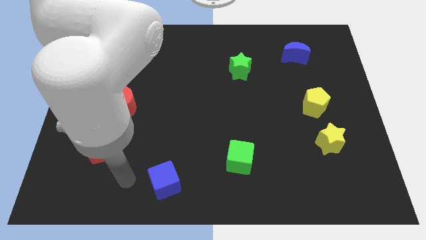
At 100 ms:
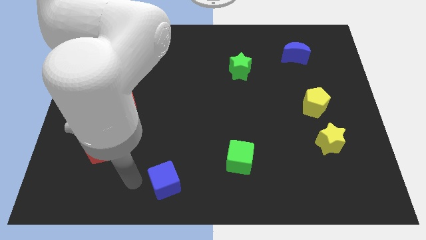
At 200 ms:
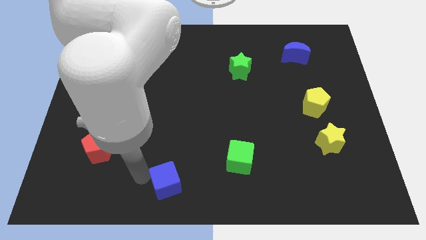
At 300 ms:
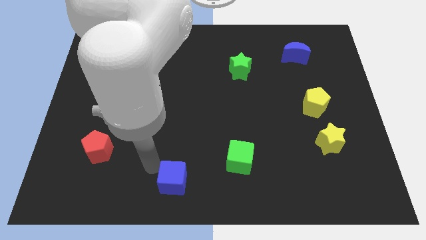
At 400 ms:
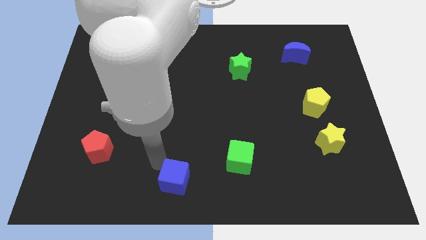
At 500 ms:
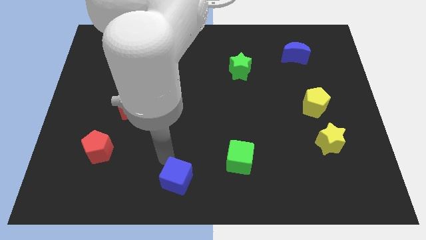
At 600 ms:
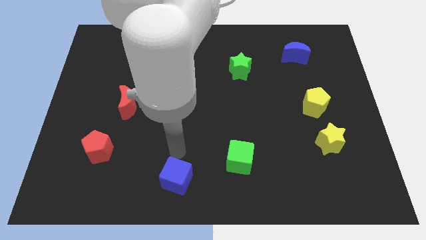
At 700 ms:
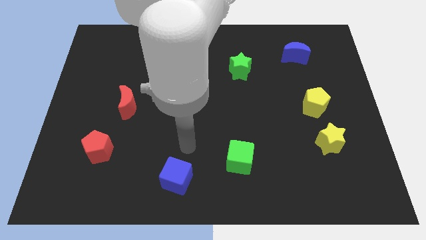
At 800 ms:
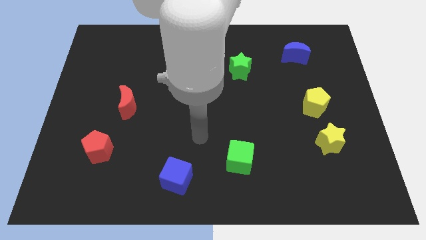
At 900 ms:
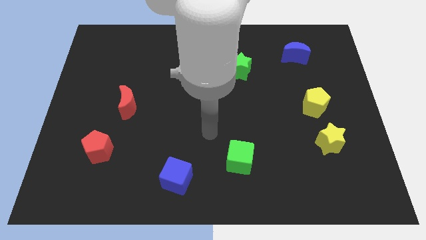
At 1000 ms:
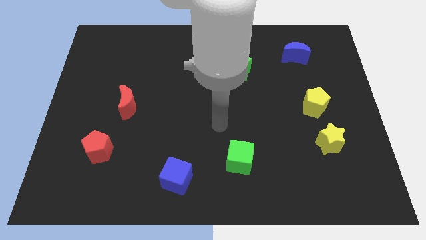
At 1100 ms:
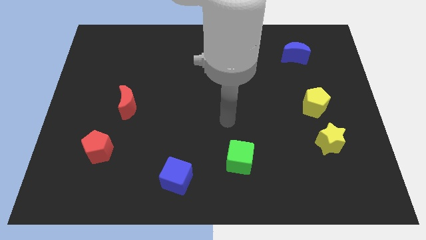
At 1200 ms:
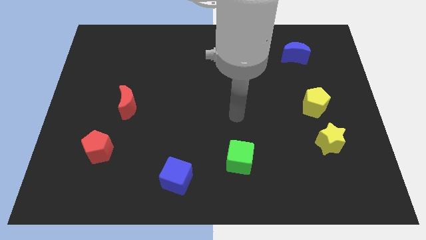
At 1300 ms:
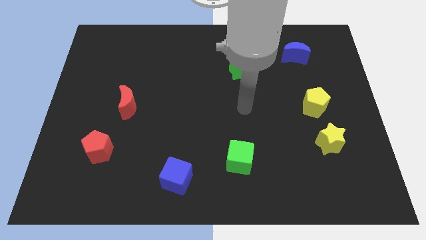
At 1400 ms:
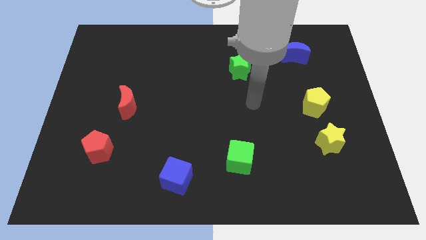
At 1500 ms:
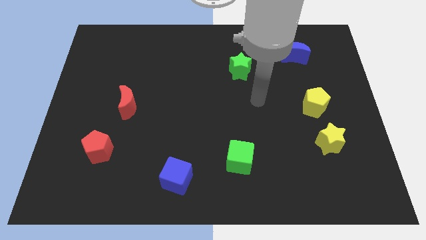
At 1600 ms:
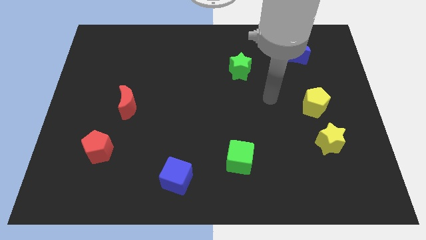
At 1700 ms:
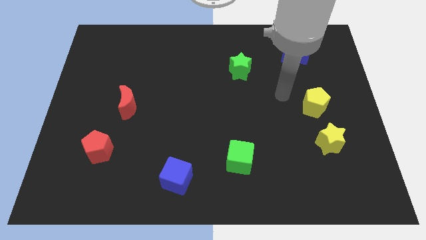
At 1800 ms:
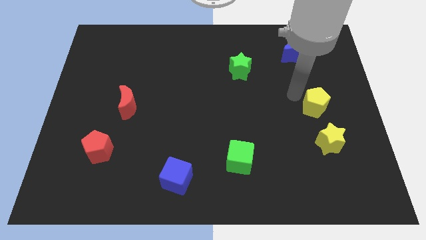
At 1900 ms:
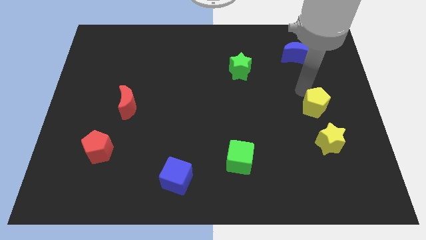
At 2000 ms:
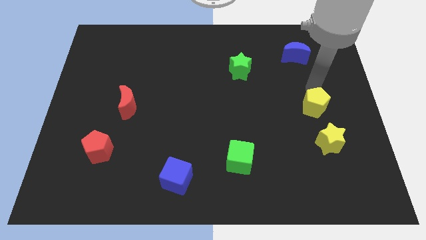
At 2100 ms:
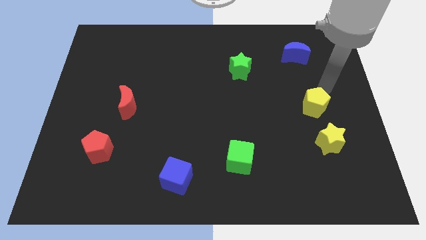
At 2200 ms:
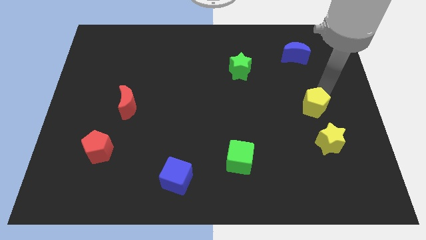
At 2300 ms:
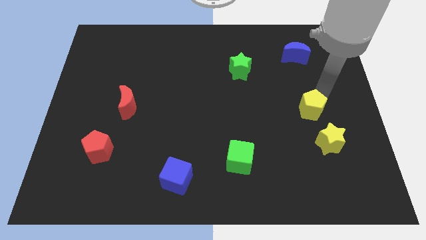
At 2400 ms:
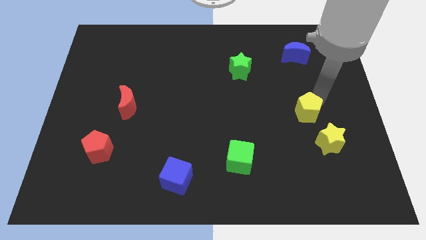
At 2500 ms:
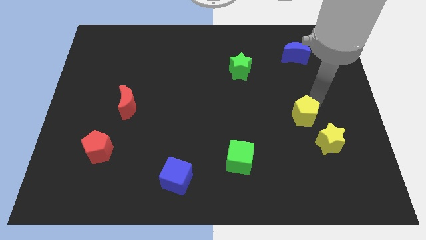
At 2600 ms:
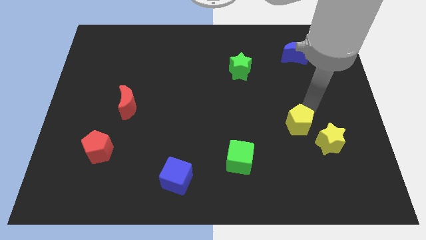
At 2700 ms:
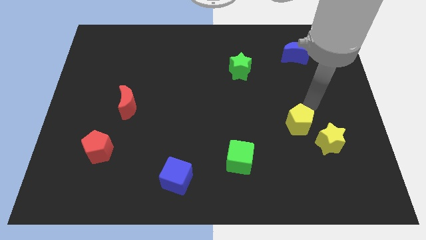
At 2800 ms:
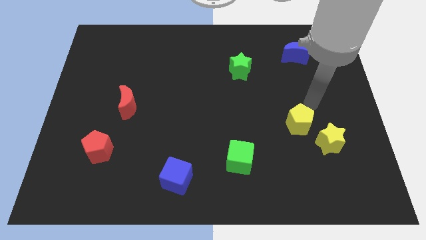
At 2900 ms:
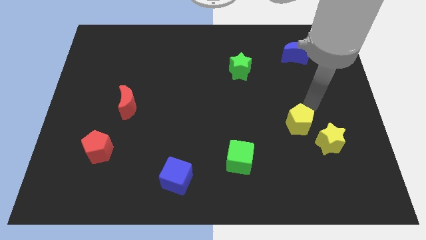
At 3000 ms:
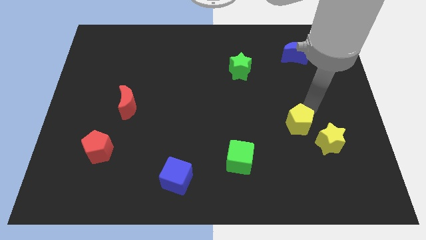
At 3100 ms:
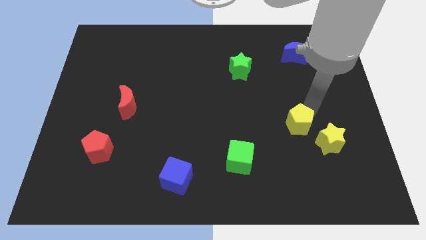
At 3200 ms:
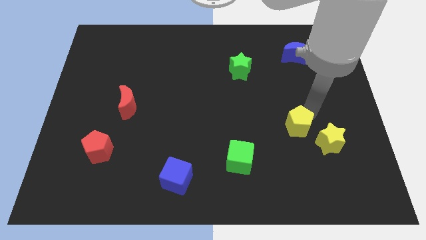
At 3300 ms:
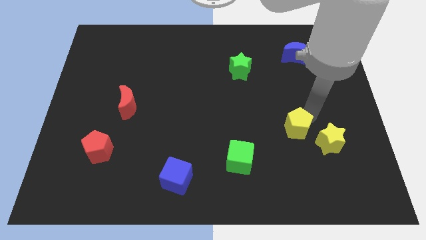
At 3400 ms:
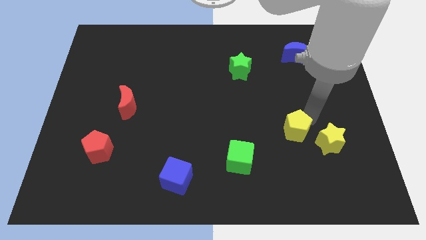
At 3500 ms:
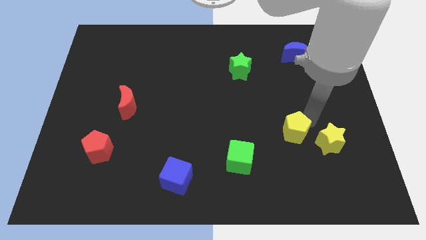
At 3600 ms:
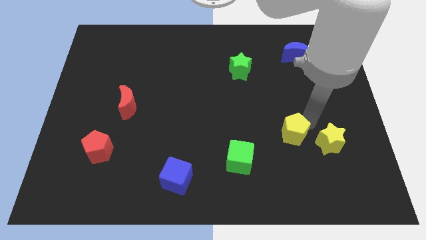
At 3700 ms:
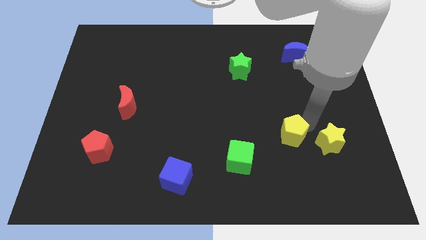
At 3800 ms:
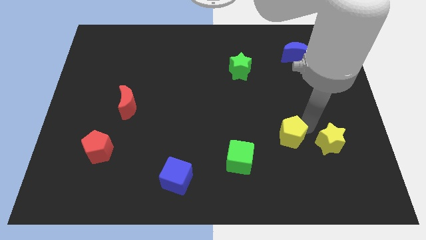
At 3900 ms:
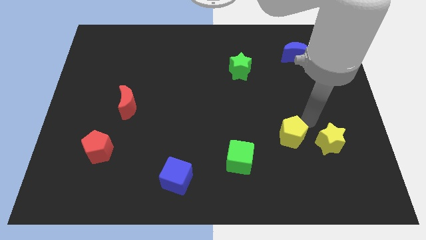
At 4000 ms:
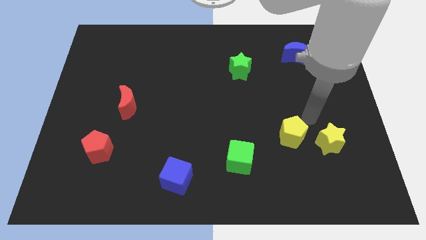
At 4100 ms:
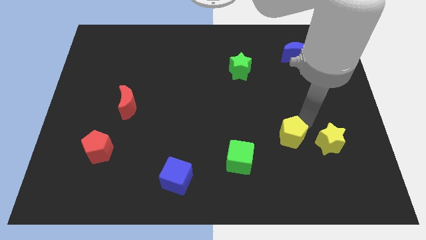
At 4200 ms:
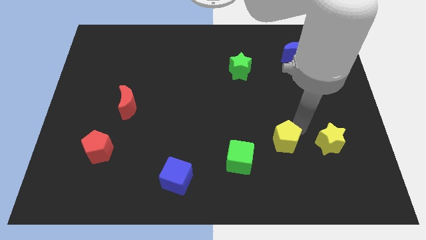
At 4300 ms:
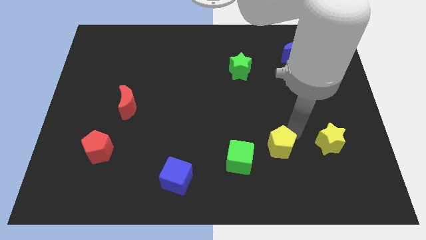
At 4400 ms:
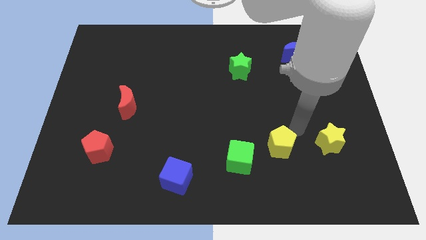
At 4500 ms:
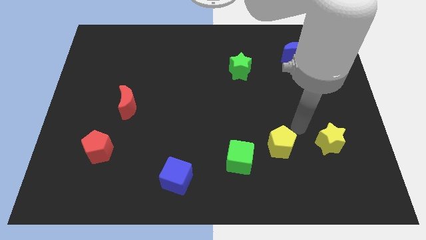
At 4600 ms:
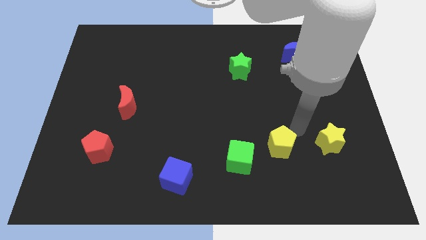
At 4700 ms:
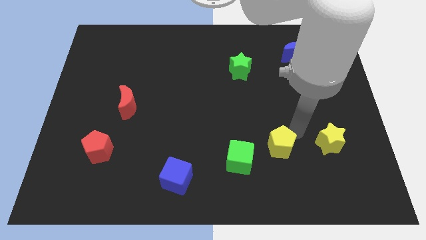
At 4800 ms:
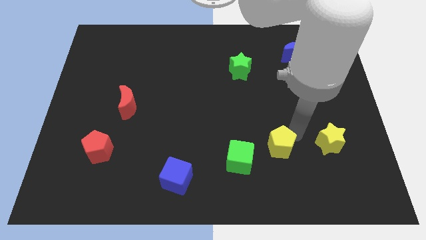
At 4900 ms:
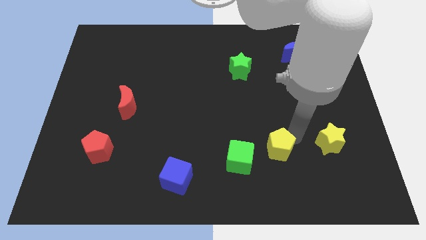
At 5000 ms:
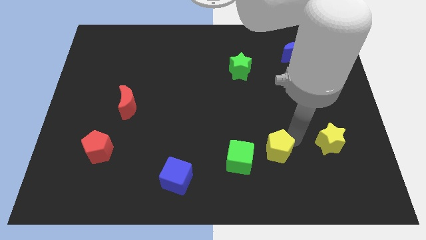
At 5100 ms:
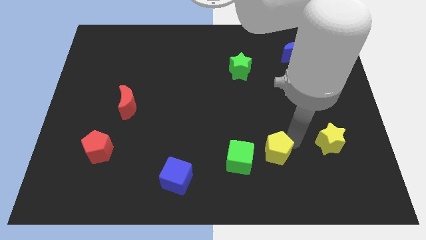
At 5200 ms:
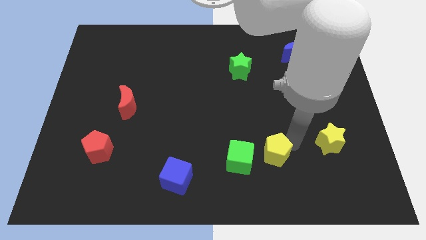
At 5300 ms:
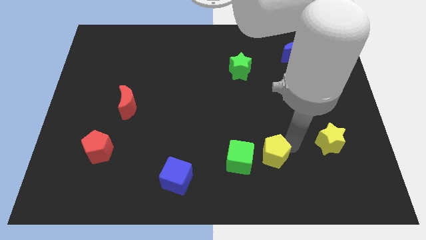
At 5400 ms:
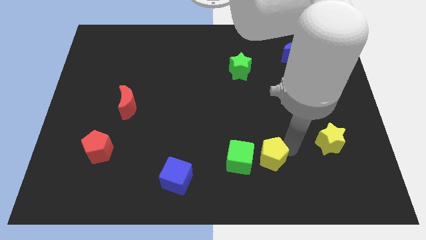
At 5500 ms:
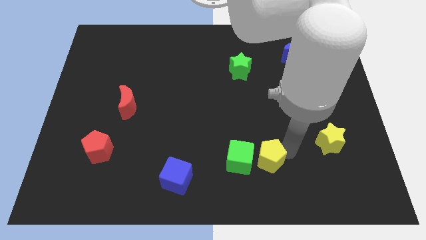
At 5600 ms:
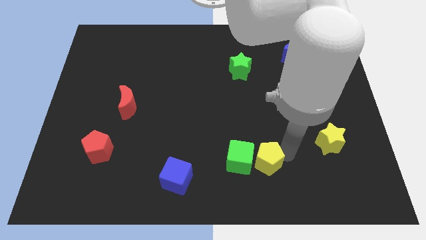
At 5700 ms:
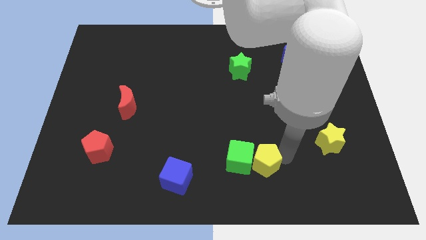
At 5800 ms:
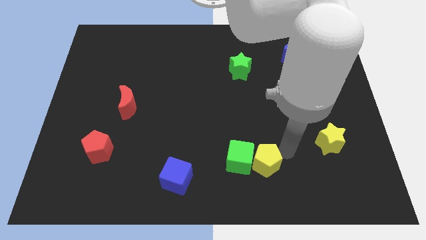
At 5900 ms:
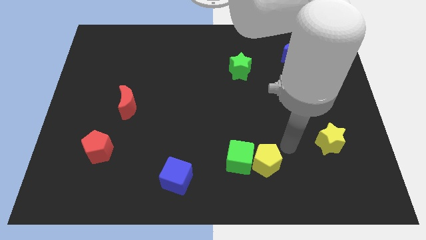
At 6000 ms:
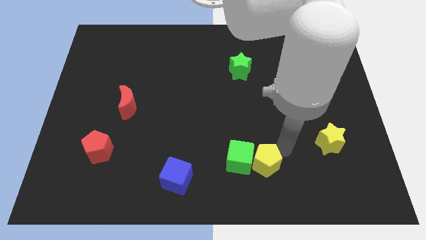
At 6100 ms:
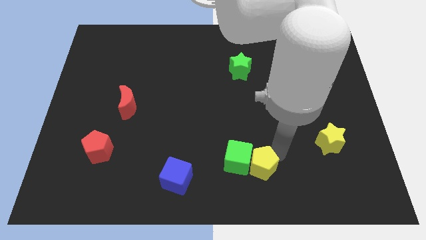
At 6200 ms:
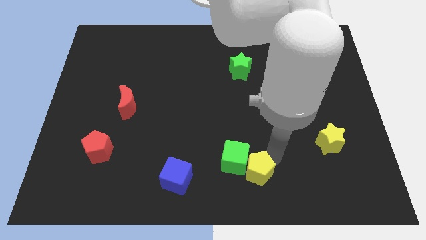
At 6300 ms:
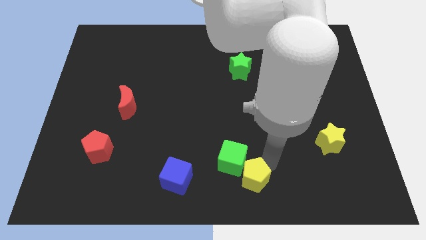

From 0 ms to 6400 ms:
push the yellow pentagon right of the blue cube

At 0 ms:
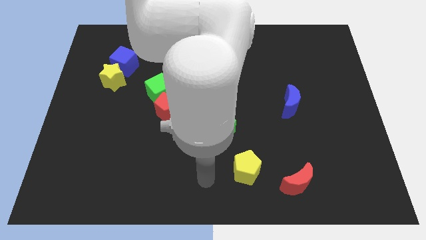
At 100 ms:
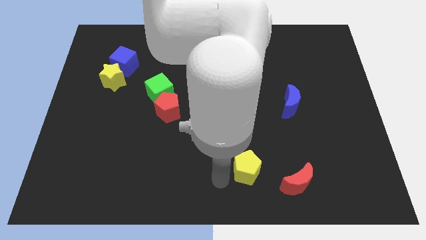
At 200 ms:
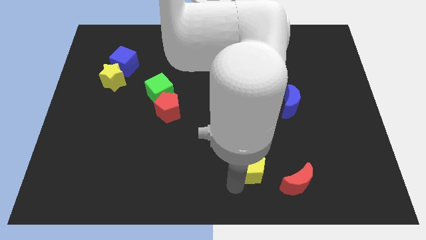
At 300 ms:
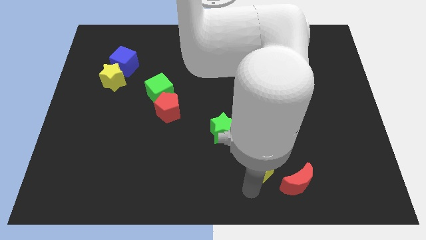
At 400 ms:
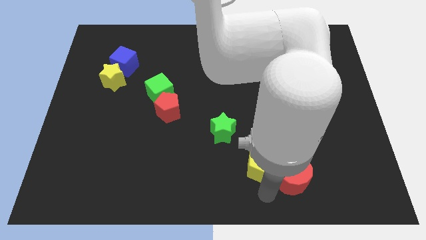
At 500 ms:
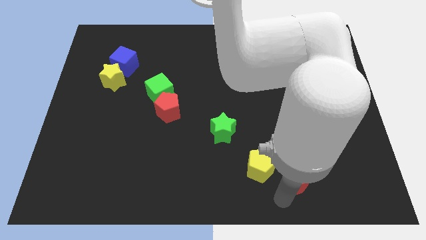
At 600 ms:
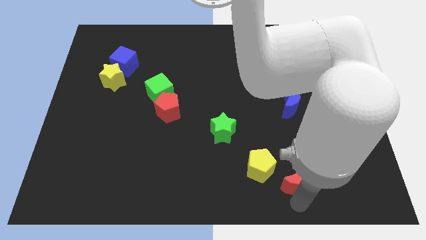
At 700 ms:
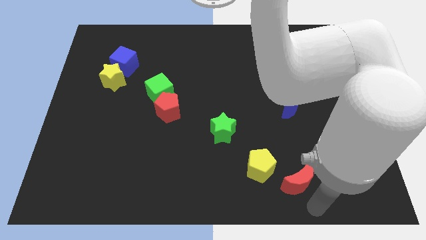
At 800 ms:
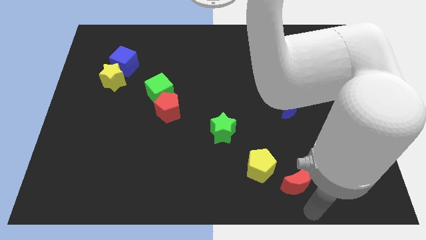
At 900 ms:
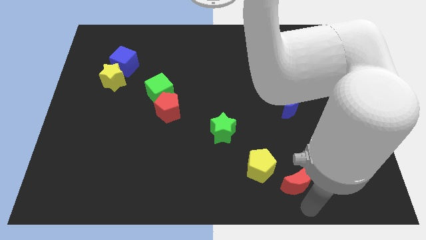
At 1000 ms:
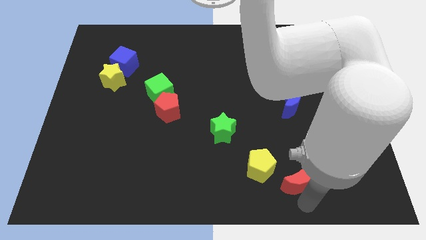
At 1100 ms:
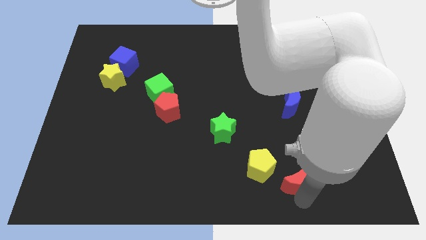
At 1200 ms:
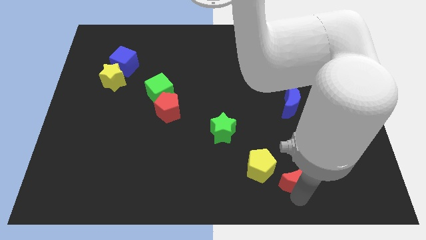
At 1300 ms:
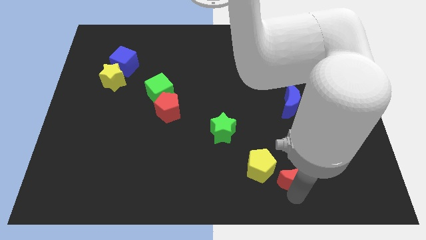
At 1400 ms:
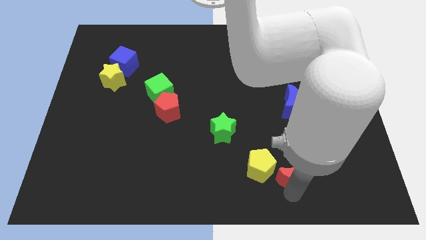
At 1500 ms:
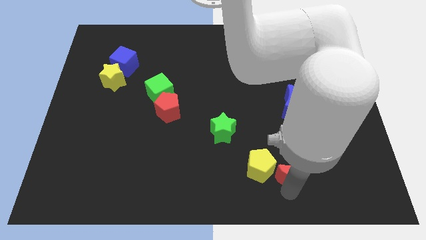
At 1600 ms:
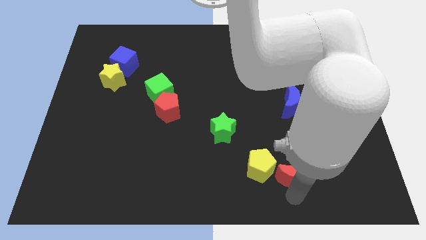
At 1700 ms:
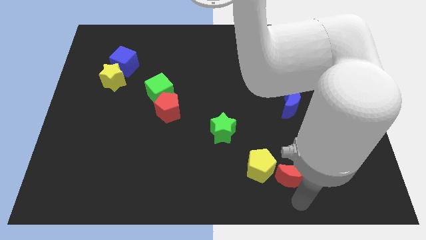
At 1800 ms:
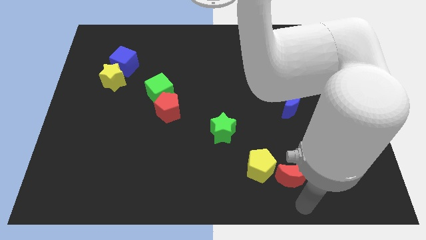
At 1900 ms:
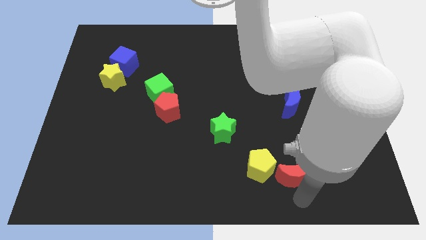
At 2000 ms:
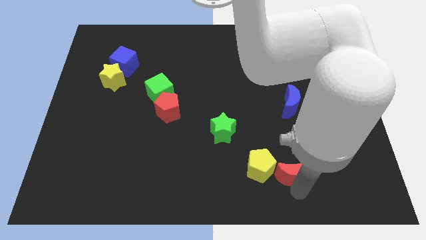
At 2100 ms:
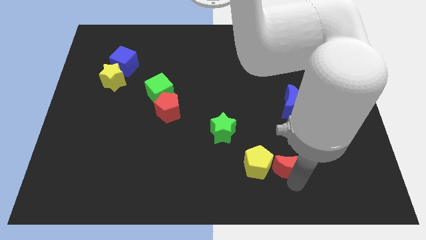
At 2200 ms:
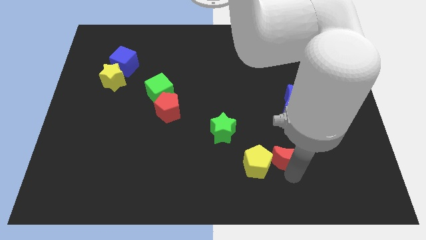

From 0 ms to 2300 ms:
move the red moon diagonally up and to the right of the yellow pentagon
